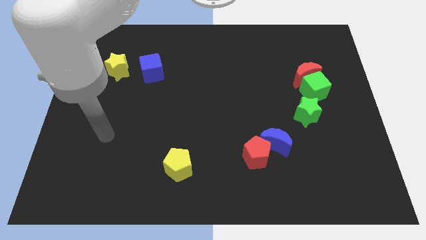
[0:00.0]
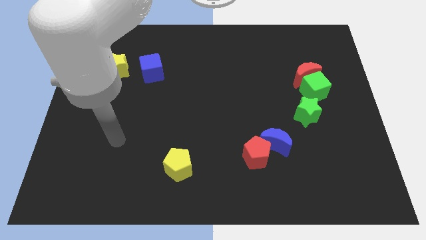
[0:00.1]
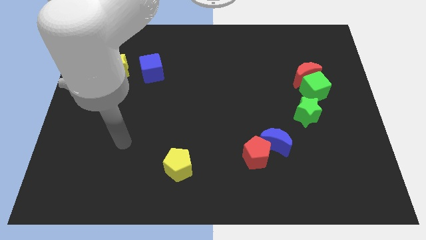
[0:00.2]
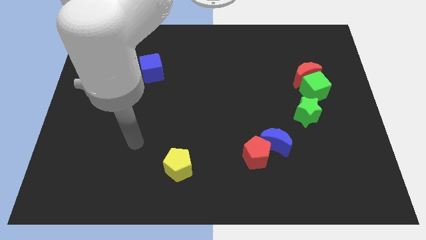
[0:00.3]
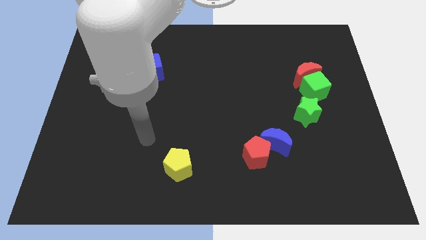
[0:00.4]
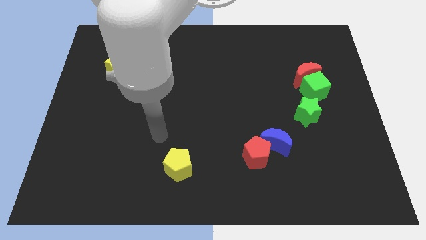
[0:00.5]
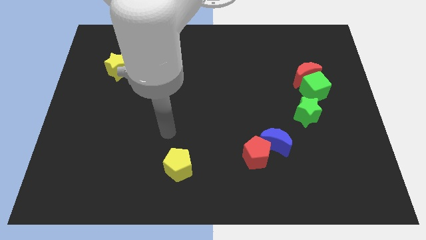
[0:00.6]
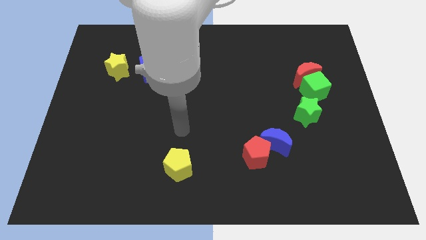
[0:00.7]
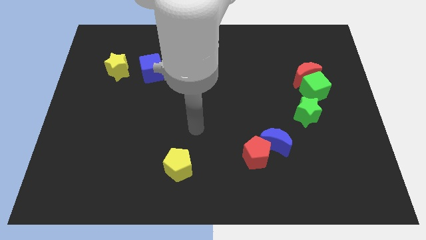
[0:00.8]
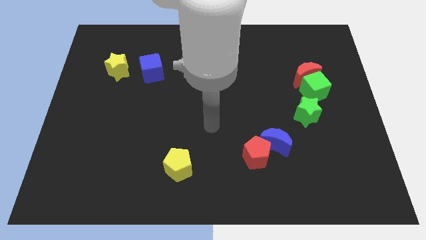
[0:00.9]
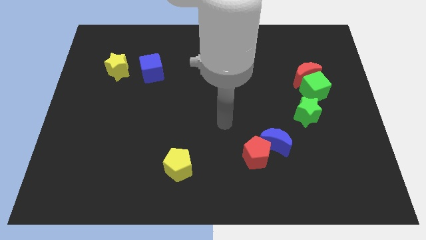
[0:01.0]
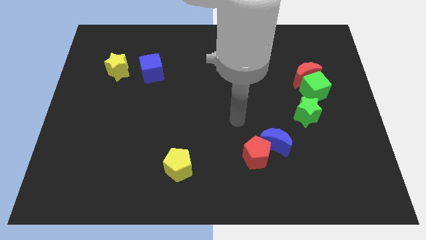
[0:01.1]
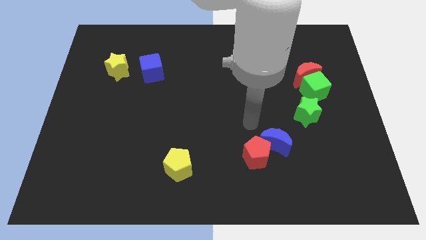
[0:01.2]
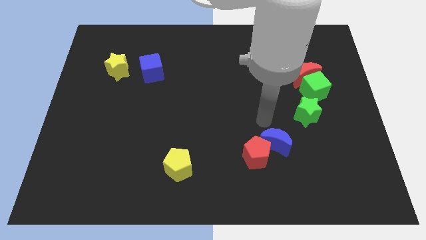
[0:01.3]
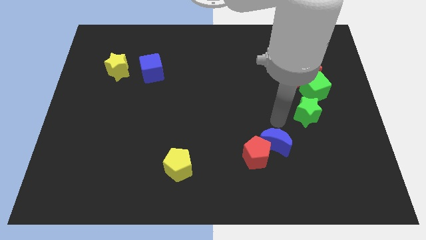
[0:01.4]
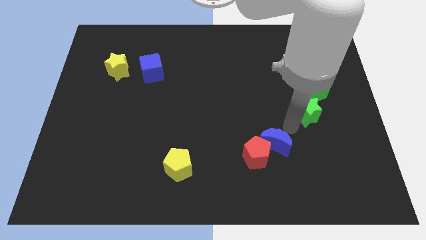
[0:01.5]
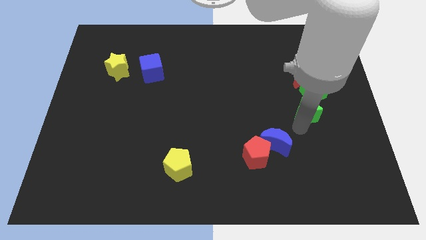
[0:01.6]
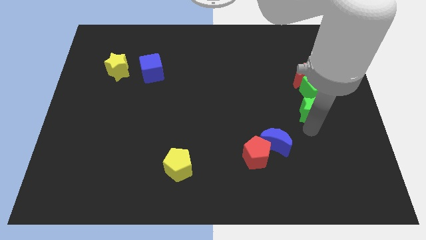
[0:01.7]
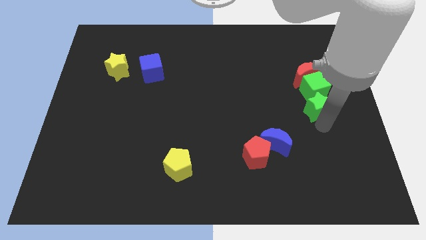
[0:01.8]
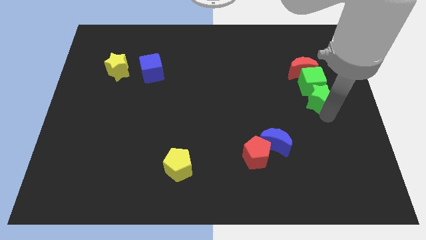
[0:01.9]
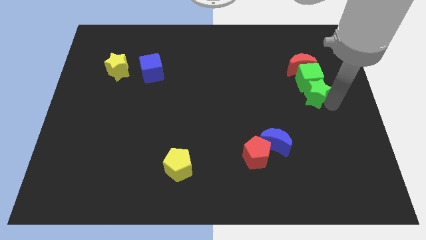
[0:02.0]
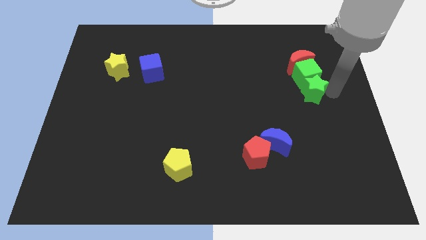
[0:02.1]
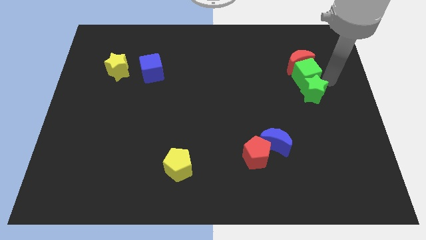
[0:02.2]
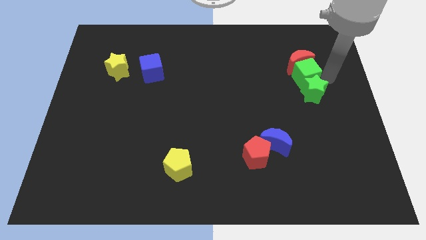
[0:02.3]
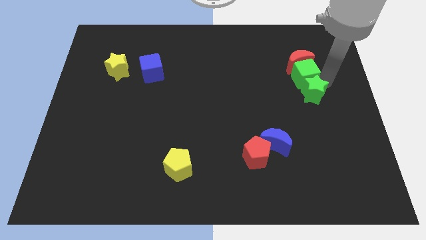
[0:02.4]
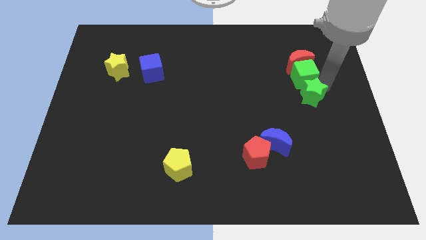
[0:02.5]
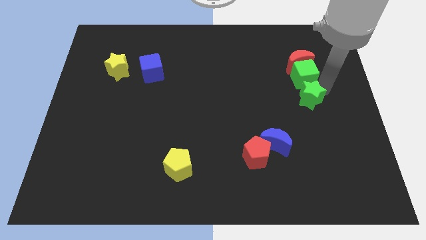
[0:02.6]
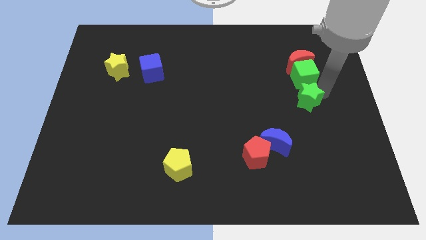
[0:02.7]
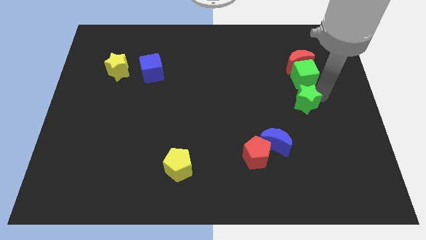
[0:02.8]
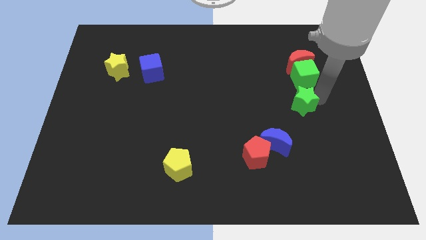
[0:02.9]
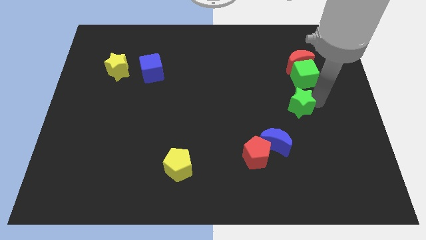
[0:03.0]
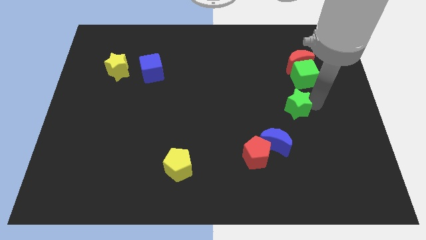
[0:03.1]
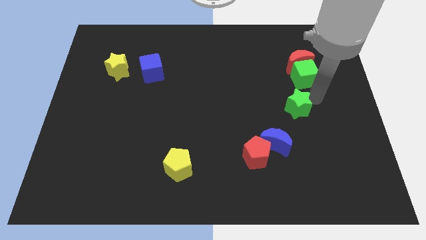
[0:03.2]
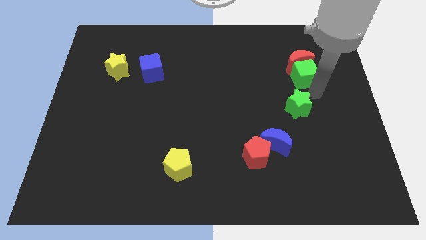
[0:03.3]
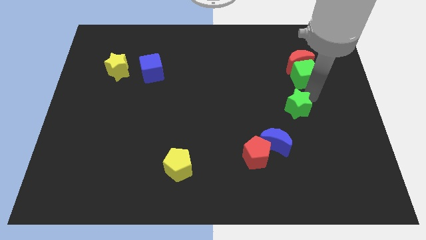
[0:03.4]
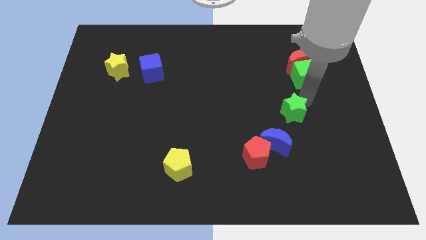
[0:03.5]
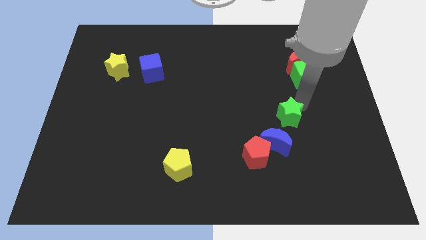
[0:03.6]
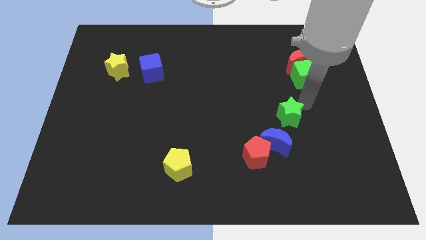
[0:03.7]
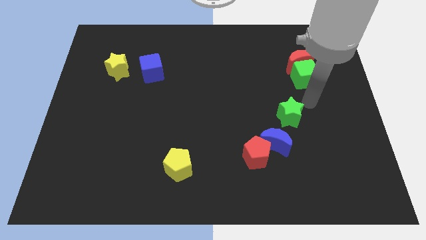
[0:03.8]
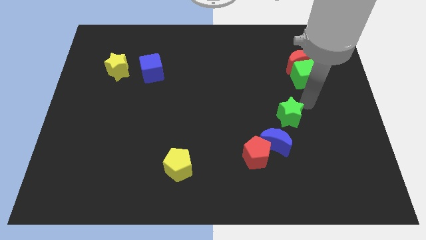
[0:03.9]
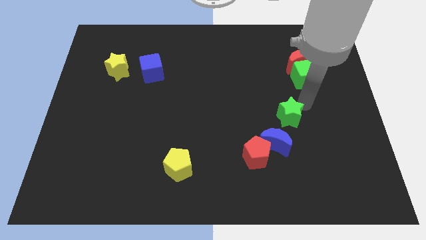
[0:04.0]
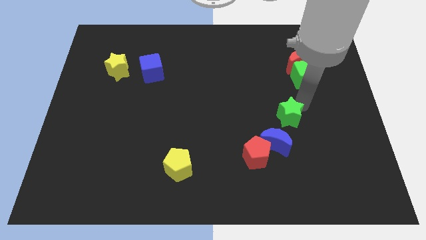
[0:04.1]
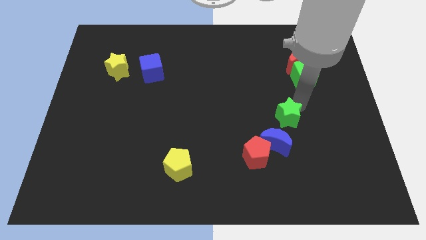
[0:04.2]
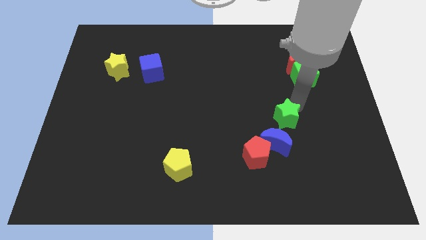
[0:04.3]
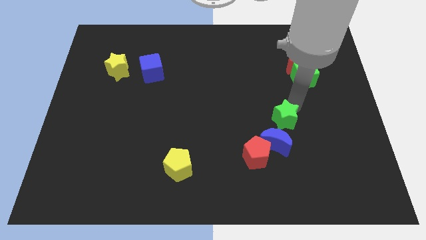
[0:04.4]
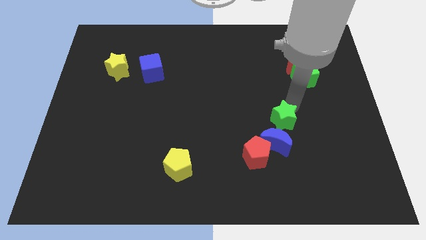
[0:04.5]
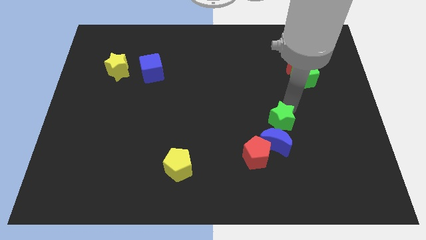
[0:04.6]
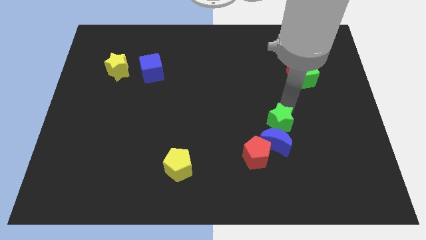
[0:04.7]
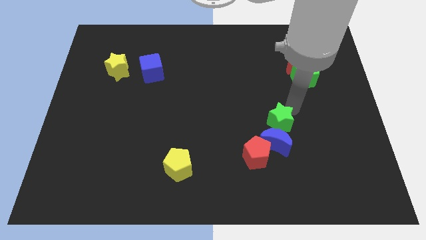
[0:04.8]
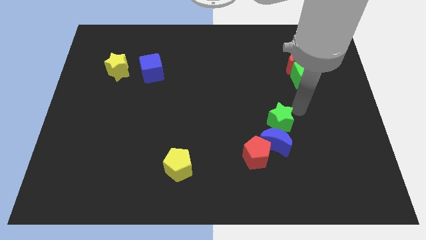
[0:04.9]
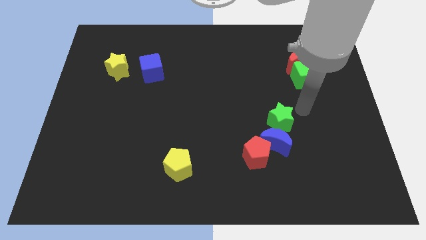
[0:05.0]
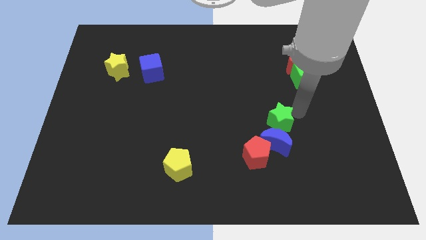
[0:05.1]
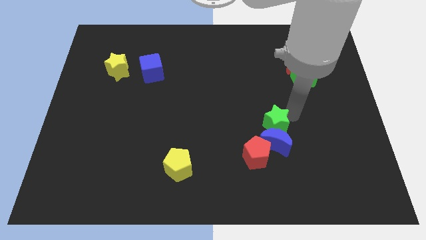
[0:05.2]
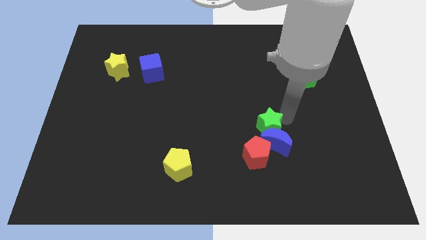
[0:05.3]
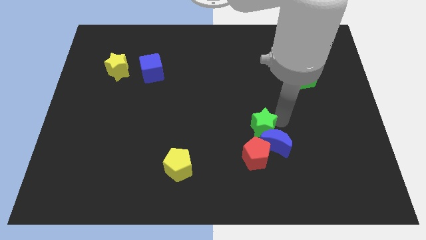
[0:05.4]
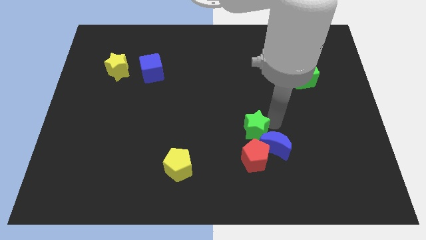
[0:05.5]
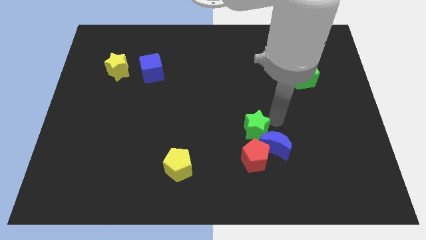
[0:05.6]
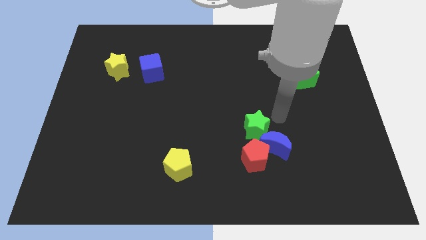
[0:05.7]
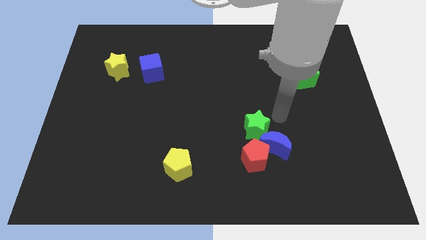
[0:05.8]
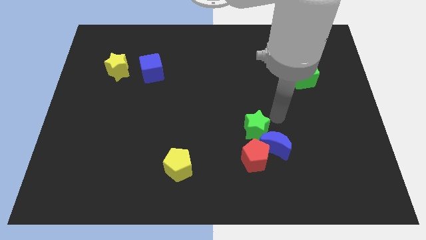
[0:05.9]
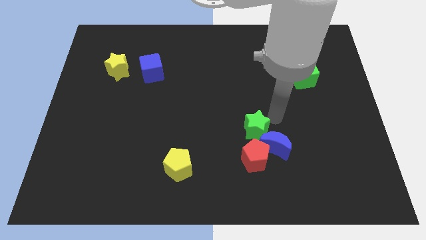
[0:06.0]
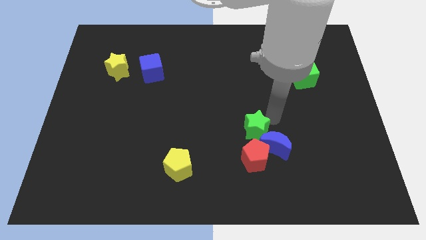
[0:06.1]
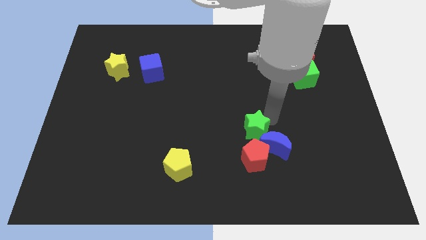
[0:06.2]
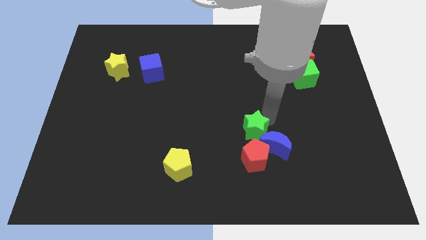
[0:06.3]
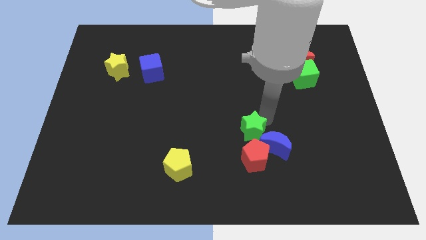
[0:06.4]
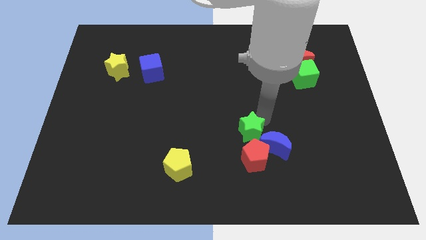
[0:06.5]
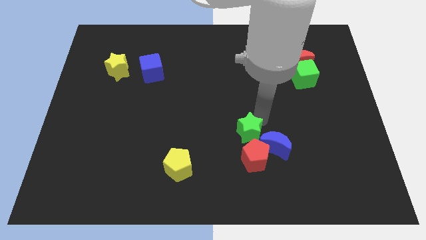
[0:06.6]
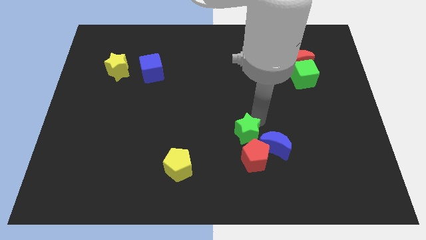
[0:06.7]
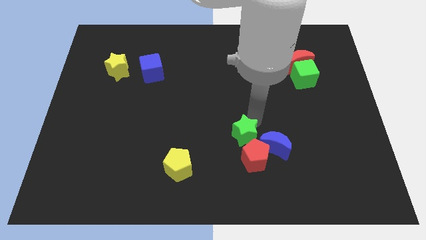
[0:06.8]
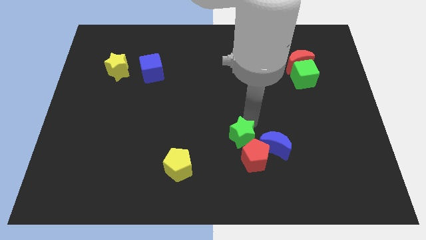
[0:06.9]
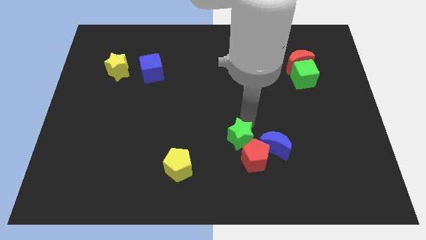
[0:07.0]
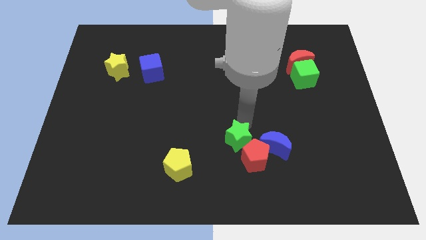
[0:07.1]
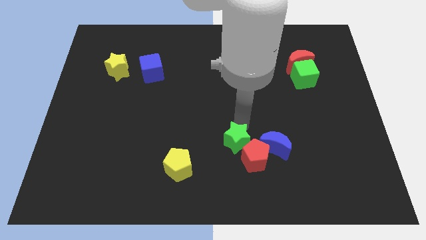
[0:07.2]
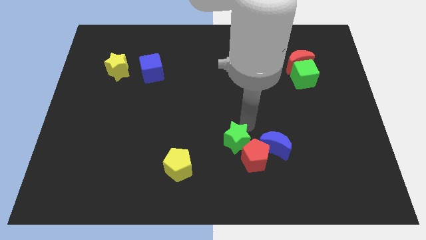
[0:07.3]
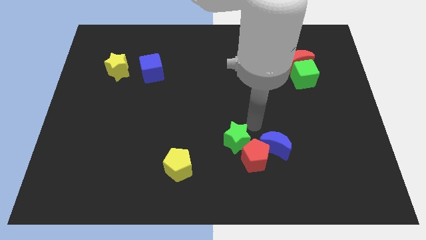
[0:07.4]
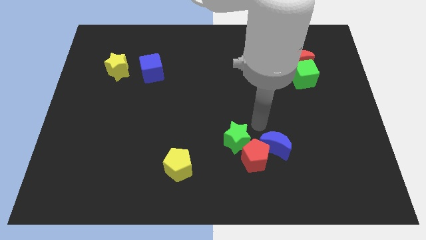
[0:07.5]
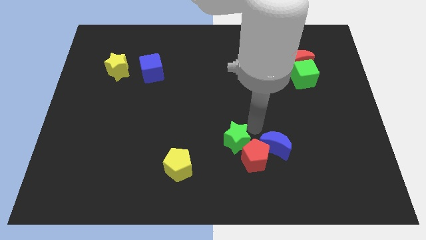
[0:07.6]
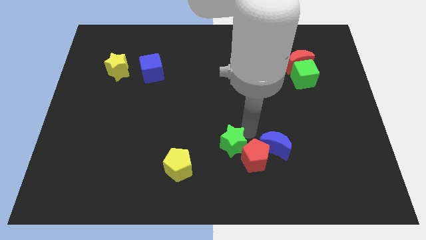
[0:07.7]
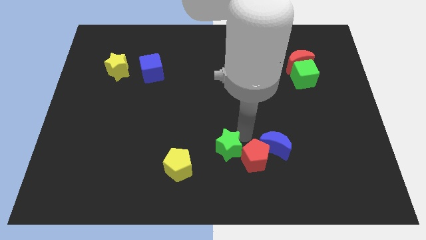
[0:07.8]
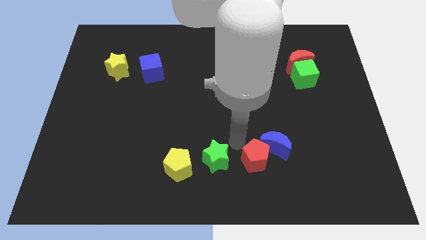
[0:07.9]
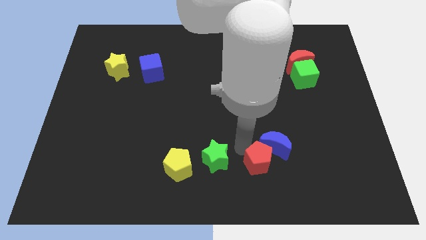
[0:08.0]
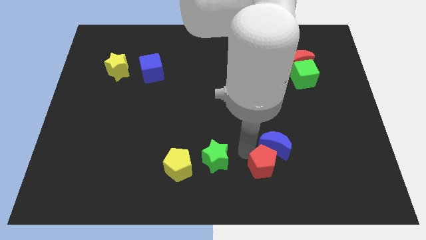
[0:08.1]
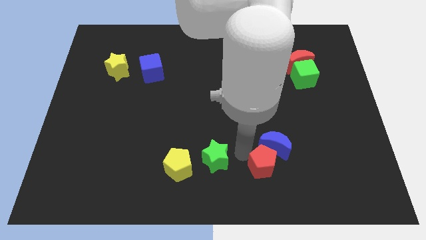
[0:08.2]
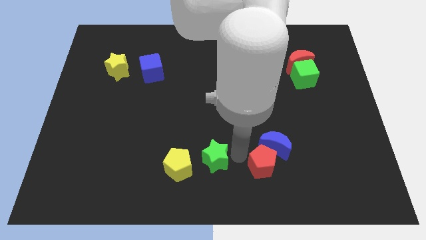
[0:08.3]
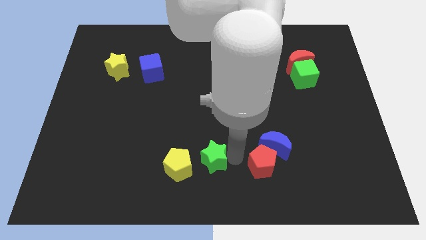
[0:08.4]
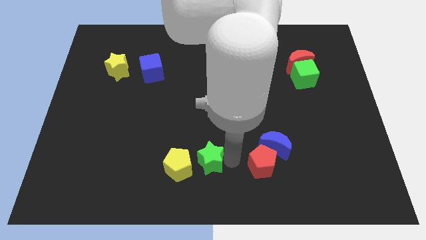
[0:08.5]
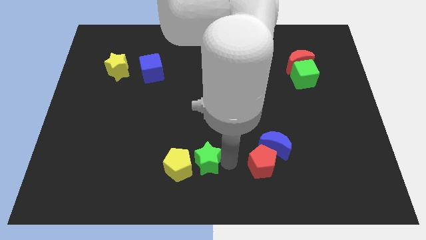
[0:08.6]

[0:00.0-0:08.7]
push the green star next to the yellow pentagon
